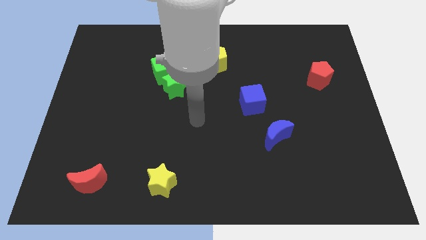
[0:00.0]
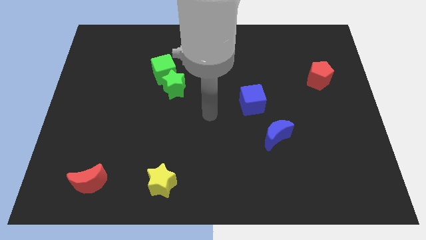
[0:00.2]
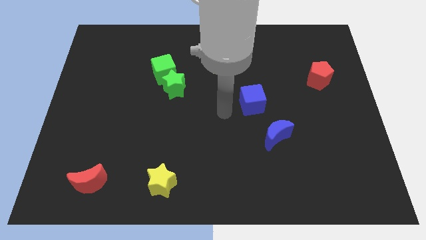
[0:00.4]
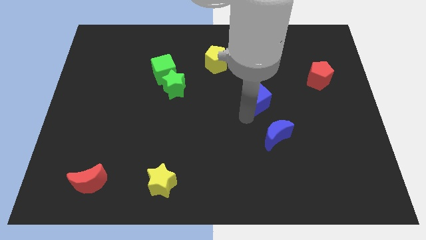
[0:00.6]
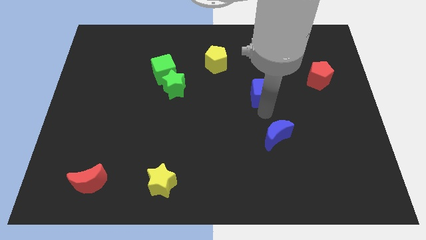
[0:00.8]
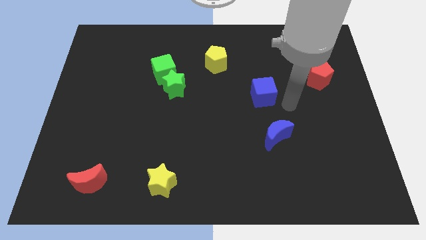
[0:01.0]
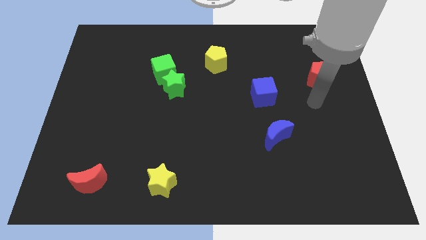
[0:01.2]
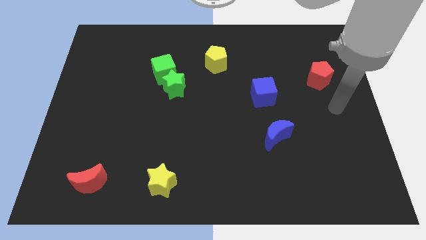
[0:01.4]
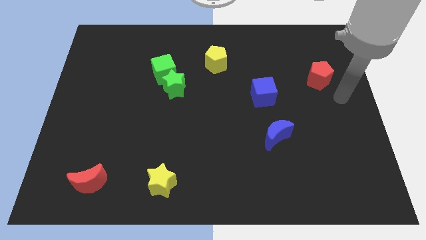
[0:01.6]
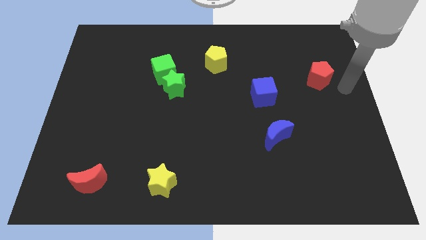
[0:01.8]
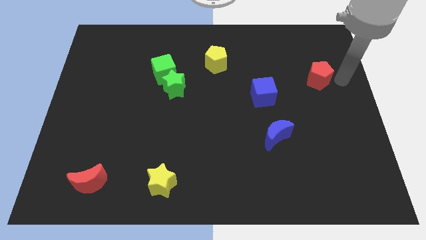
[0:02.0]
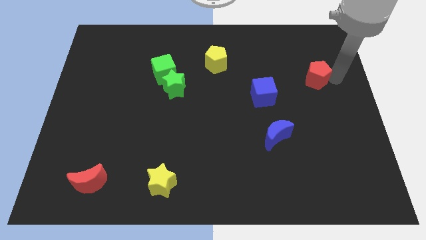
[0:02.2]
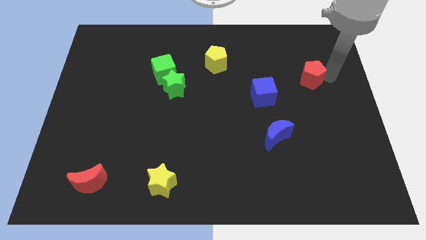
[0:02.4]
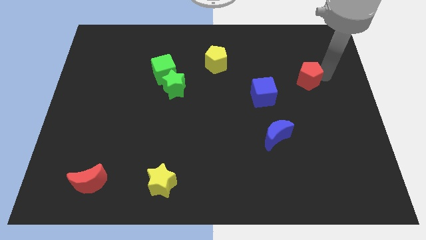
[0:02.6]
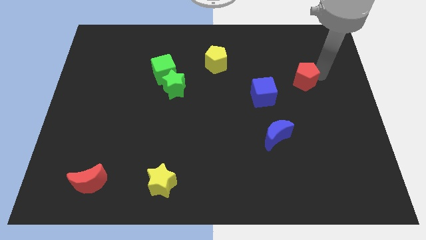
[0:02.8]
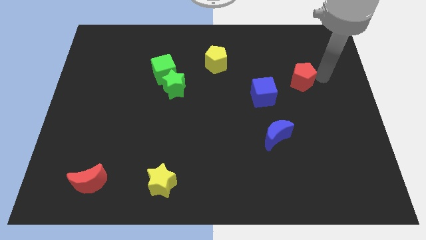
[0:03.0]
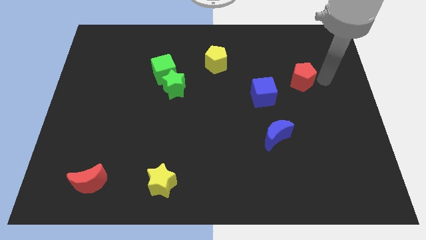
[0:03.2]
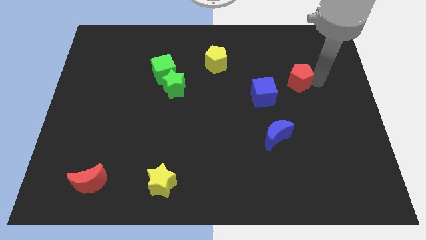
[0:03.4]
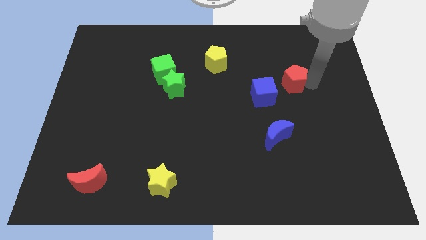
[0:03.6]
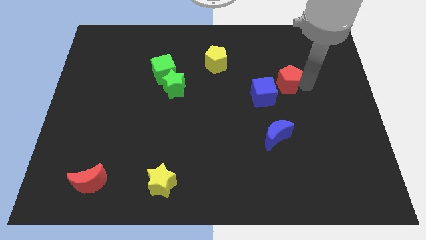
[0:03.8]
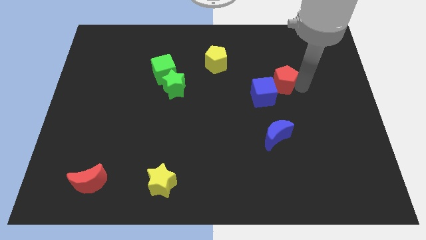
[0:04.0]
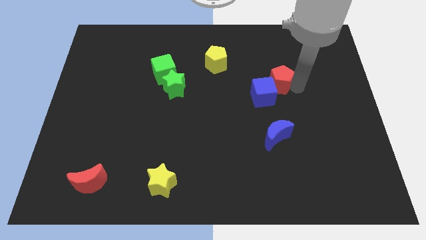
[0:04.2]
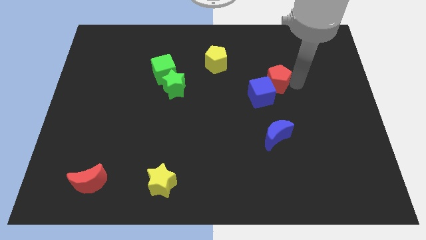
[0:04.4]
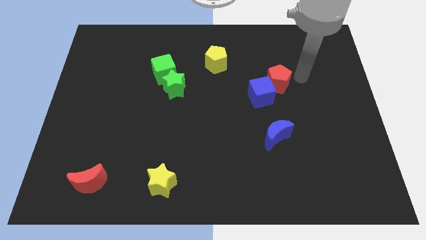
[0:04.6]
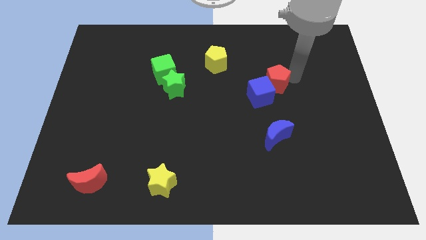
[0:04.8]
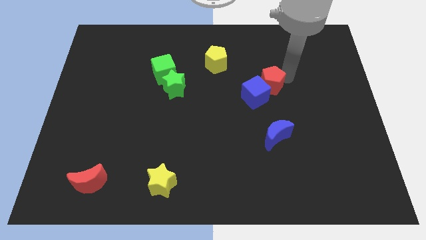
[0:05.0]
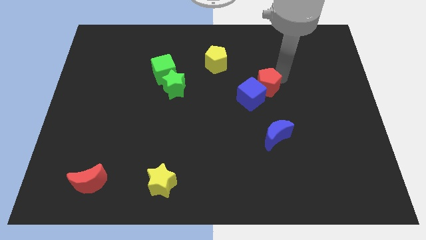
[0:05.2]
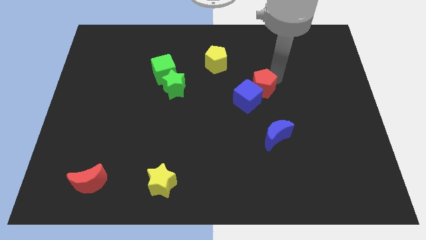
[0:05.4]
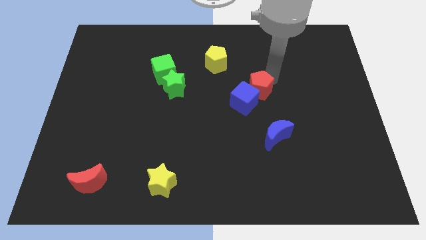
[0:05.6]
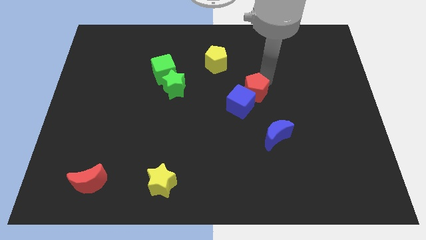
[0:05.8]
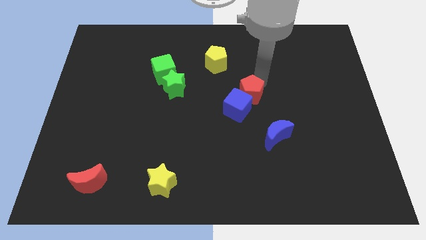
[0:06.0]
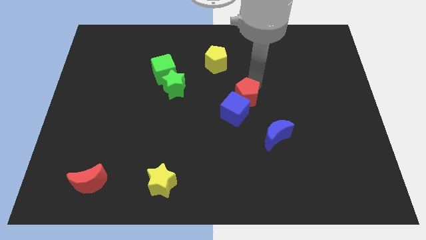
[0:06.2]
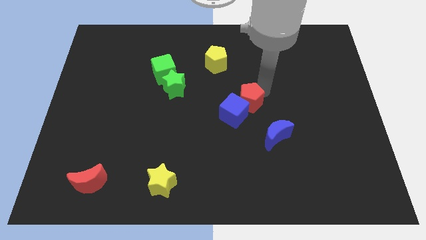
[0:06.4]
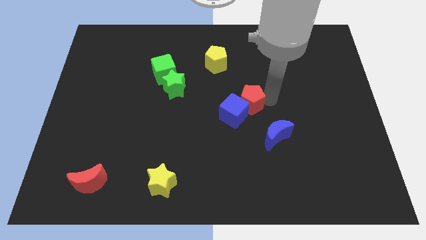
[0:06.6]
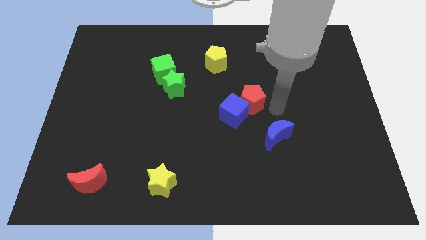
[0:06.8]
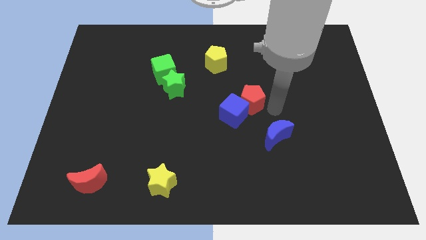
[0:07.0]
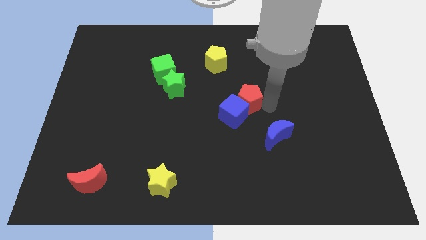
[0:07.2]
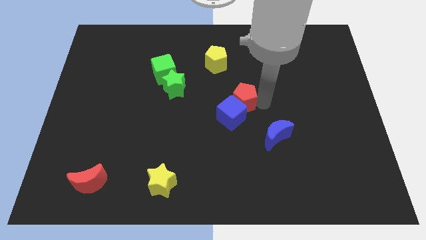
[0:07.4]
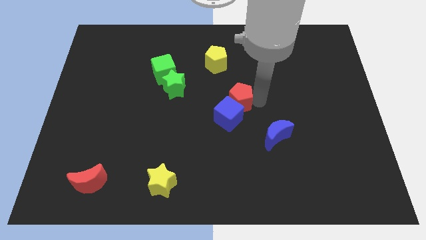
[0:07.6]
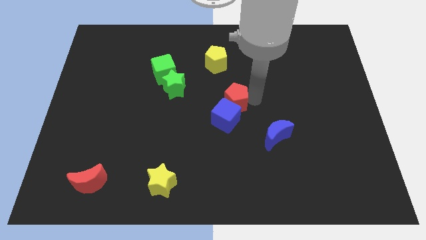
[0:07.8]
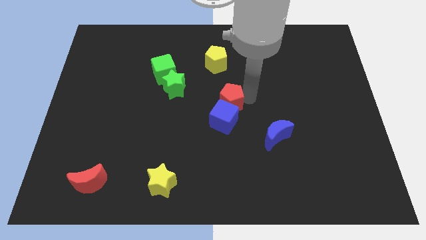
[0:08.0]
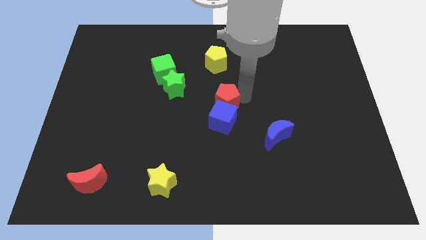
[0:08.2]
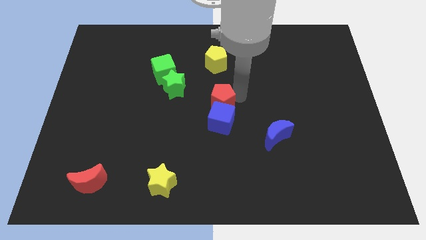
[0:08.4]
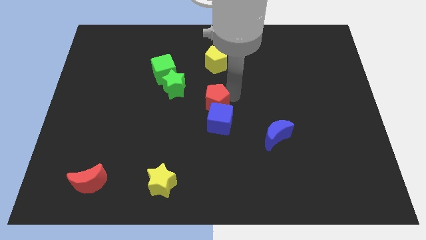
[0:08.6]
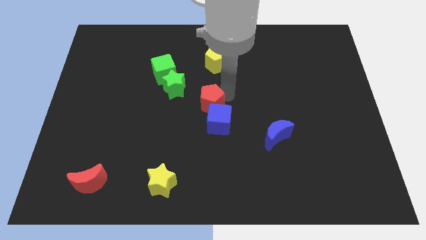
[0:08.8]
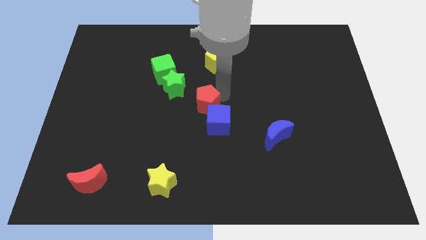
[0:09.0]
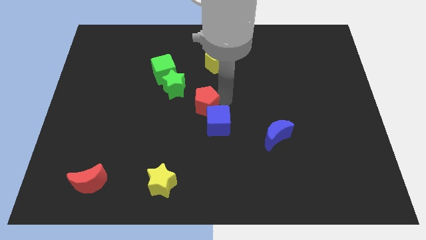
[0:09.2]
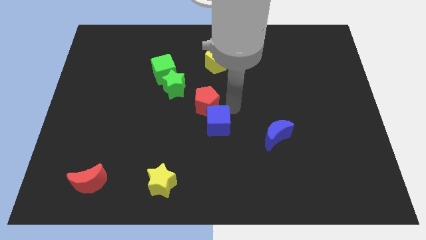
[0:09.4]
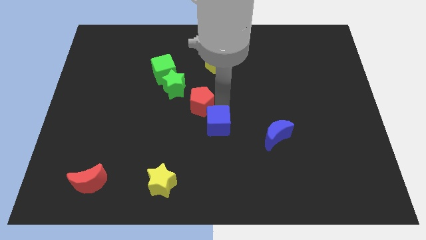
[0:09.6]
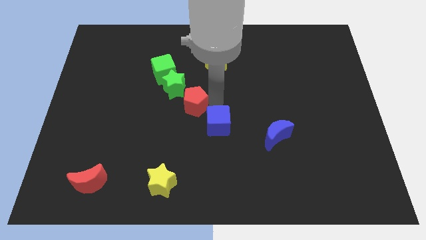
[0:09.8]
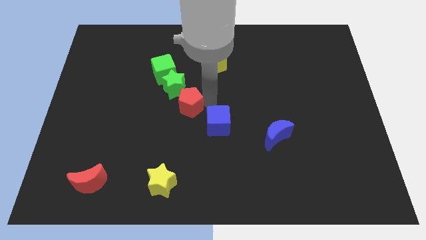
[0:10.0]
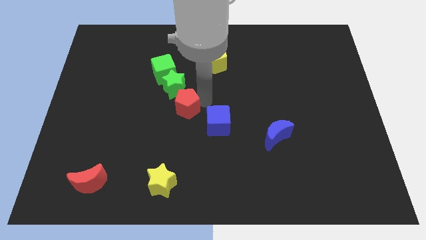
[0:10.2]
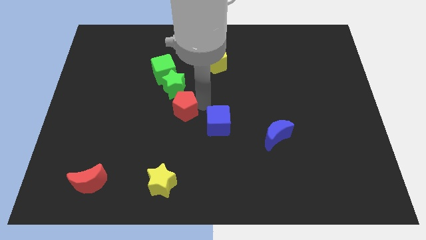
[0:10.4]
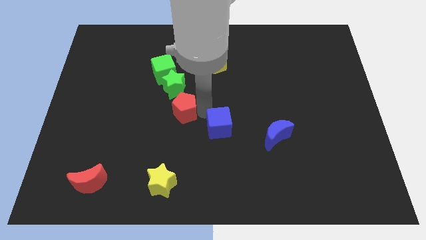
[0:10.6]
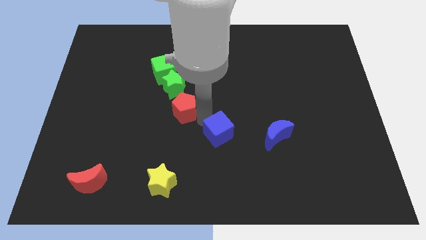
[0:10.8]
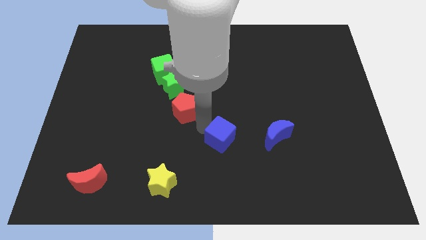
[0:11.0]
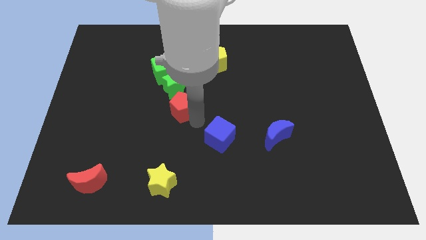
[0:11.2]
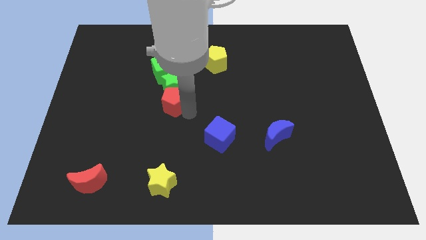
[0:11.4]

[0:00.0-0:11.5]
slide the red pentagon to the bottom left side of the green star

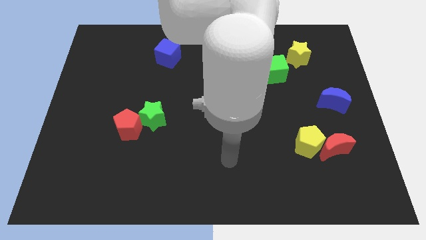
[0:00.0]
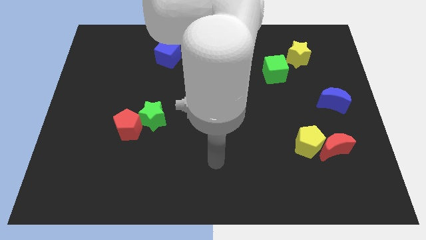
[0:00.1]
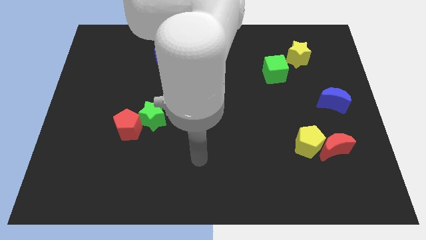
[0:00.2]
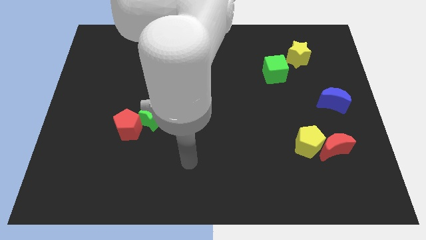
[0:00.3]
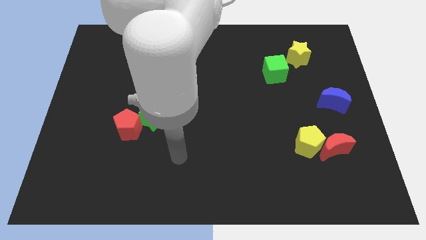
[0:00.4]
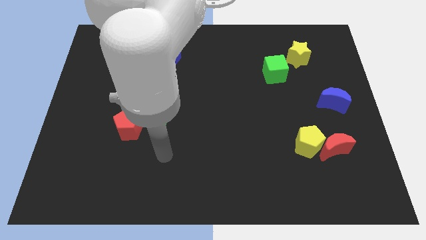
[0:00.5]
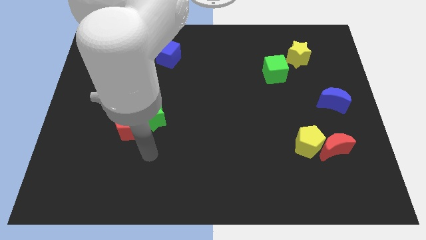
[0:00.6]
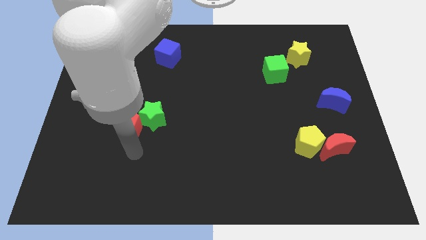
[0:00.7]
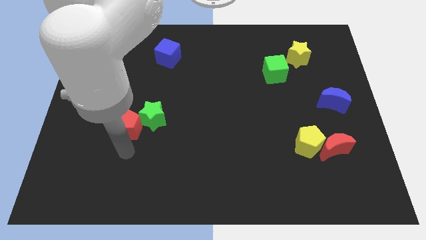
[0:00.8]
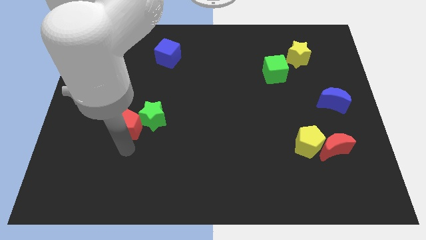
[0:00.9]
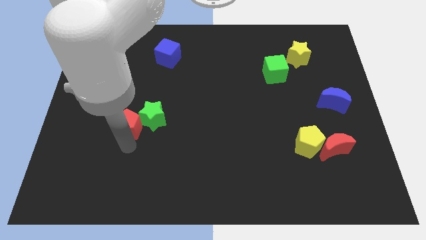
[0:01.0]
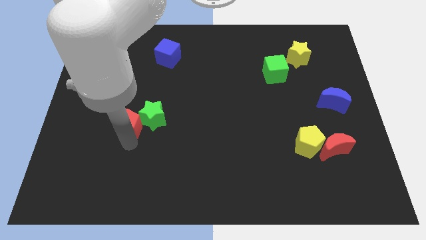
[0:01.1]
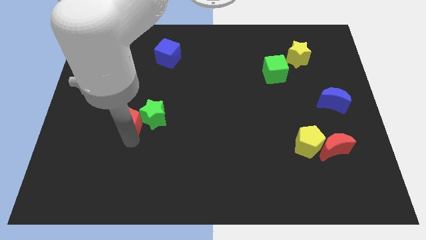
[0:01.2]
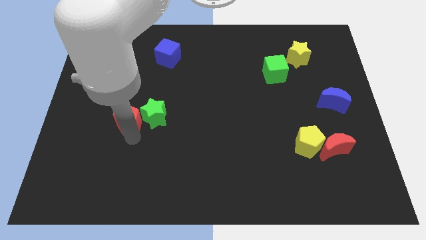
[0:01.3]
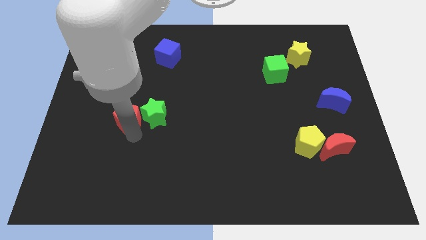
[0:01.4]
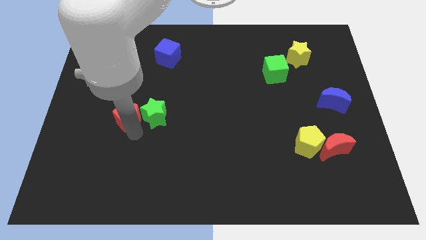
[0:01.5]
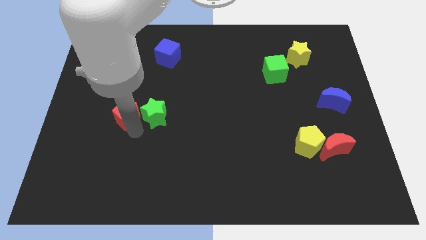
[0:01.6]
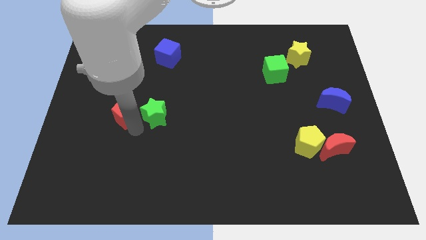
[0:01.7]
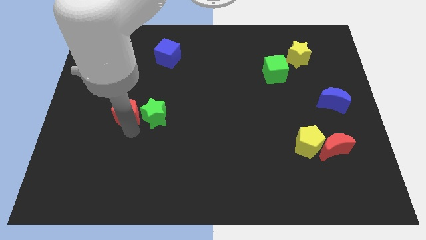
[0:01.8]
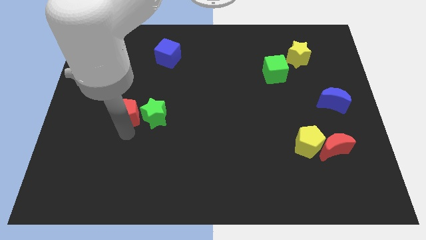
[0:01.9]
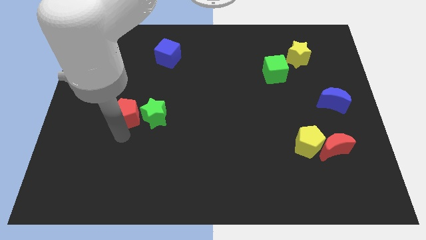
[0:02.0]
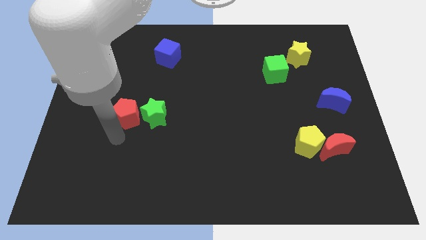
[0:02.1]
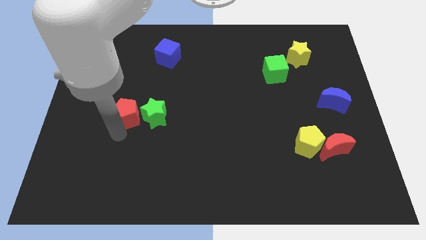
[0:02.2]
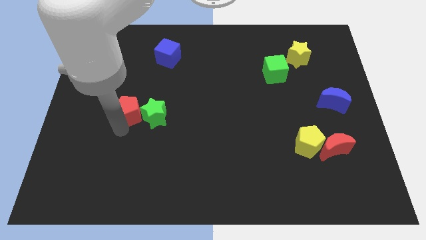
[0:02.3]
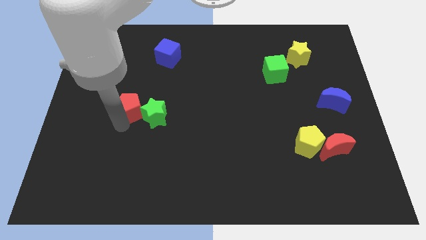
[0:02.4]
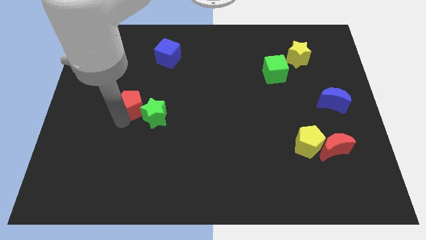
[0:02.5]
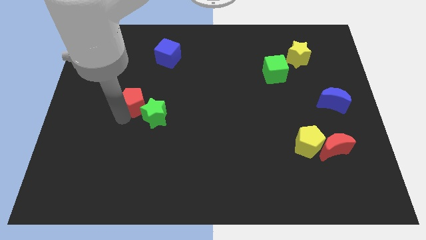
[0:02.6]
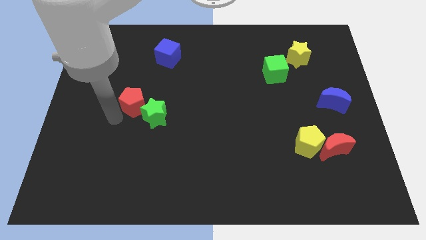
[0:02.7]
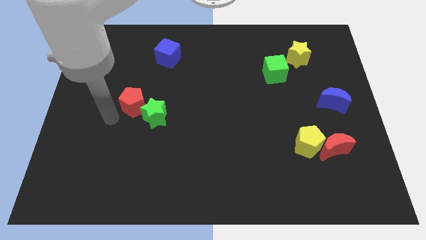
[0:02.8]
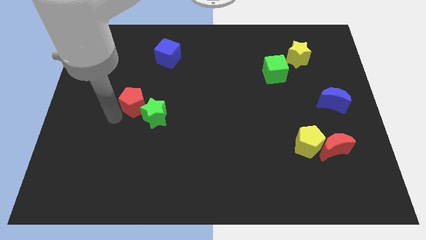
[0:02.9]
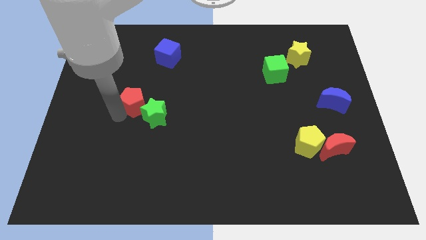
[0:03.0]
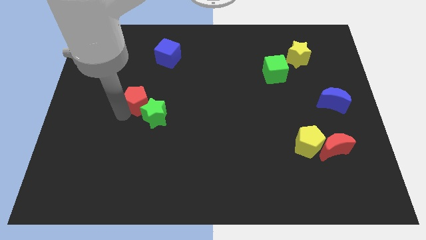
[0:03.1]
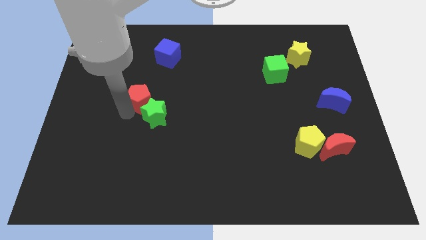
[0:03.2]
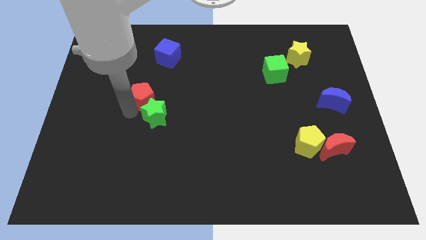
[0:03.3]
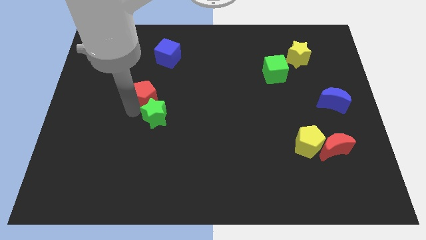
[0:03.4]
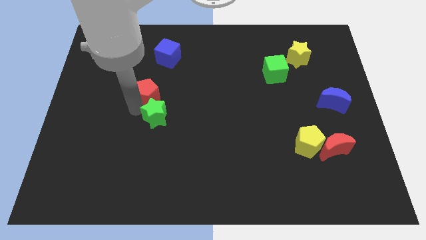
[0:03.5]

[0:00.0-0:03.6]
slide the red pentagon below the blue cube
